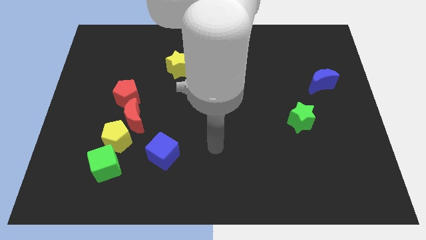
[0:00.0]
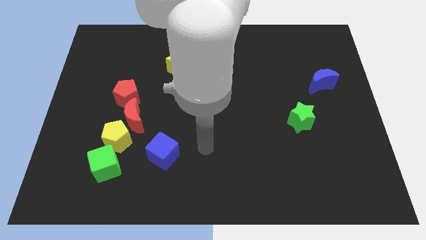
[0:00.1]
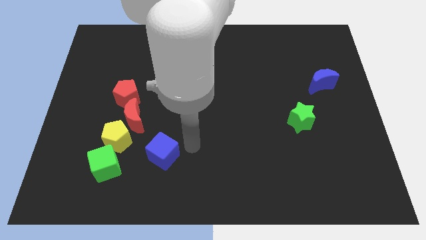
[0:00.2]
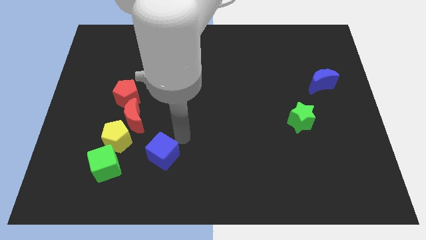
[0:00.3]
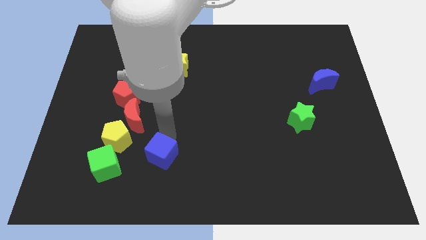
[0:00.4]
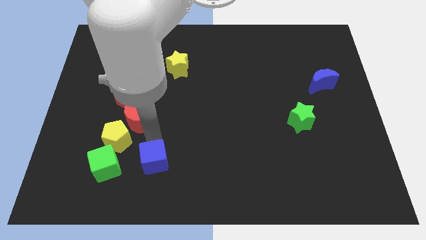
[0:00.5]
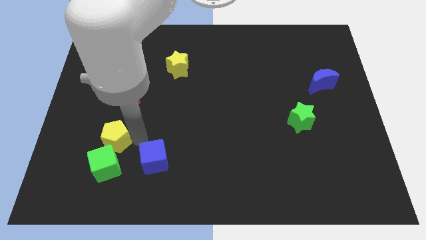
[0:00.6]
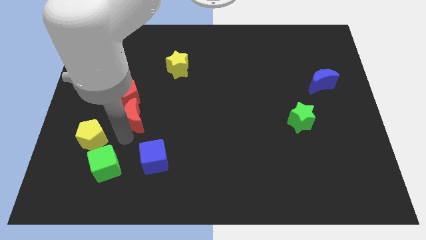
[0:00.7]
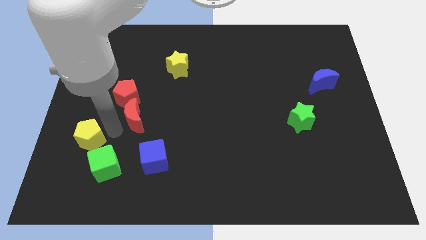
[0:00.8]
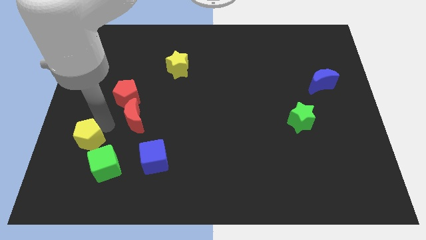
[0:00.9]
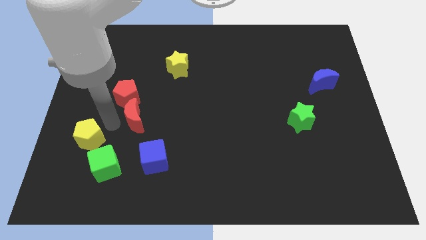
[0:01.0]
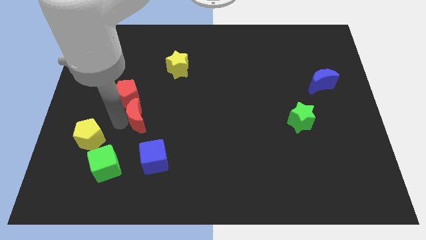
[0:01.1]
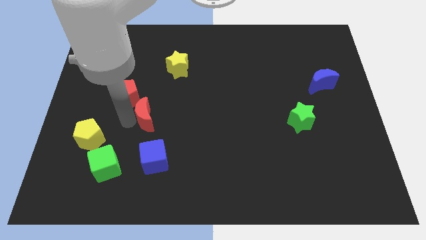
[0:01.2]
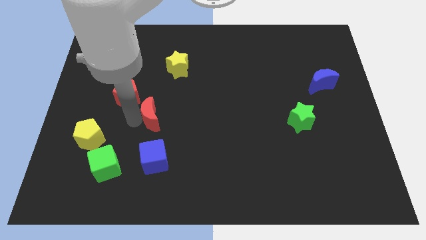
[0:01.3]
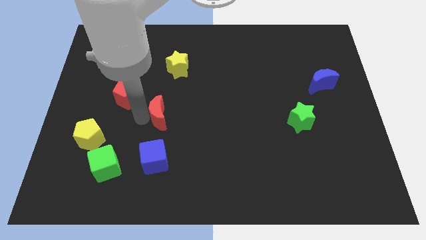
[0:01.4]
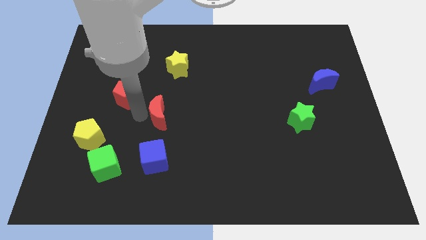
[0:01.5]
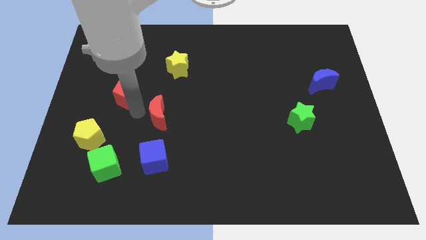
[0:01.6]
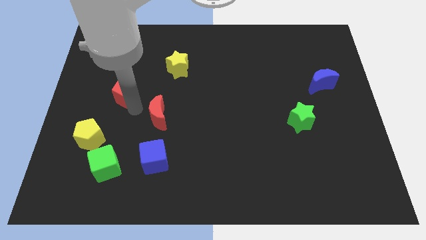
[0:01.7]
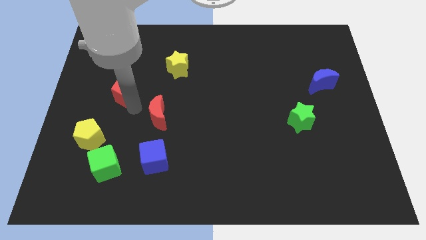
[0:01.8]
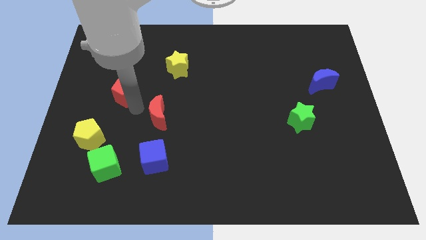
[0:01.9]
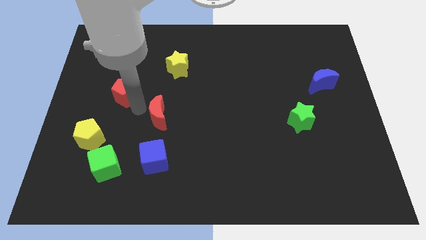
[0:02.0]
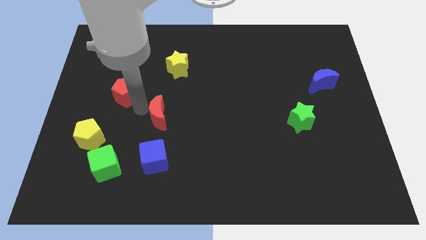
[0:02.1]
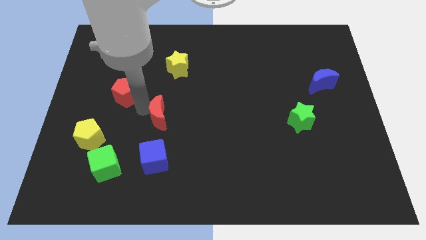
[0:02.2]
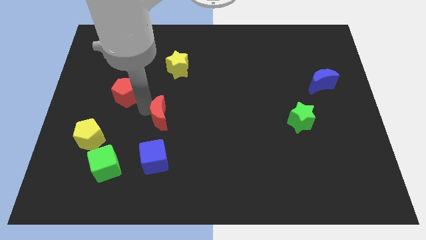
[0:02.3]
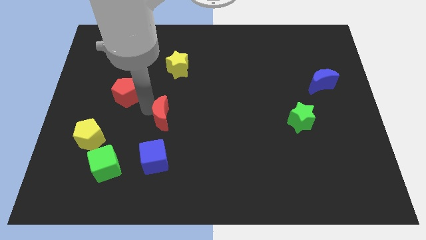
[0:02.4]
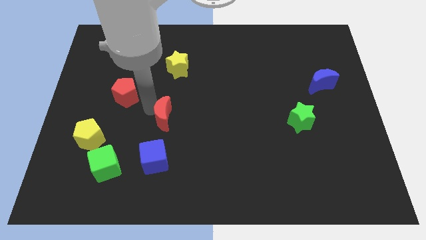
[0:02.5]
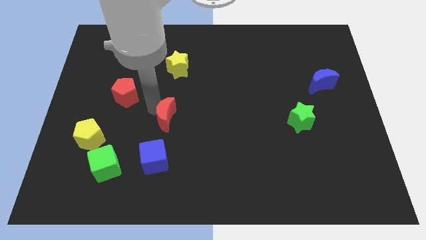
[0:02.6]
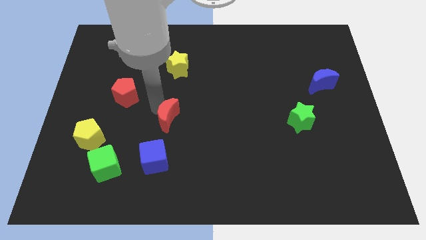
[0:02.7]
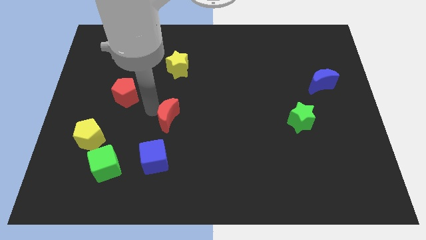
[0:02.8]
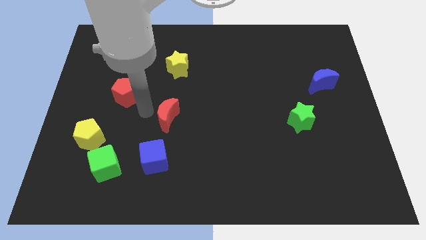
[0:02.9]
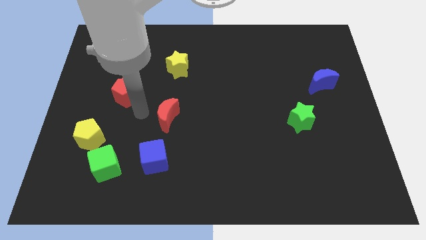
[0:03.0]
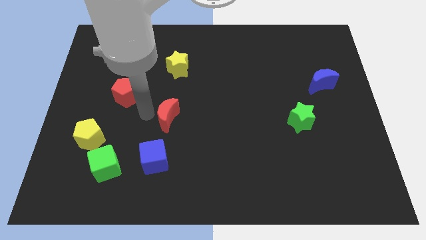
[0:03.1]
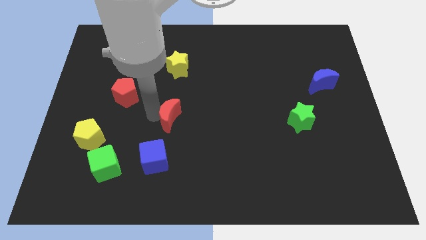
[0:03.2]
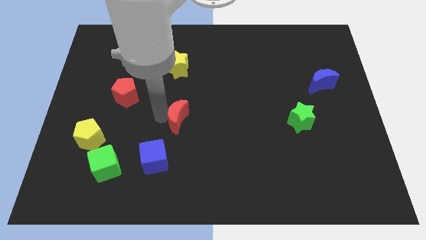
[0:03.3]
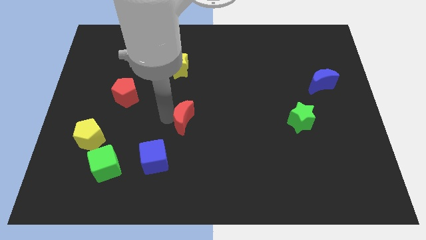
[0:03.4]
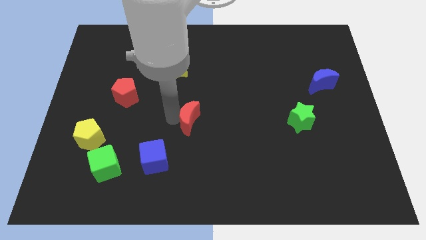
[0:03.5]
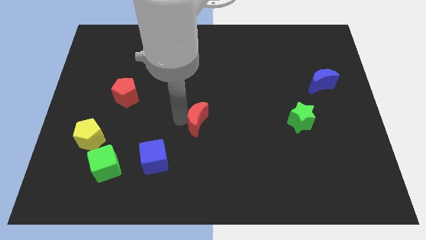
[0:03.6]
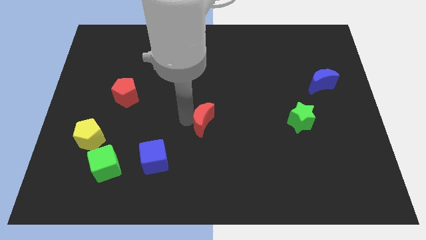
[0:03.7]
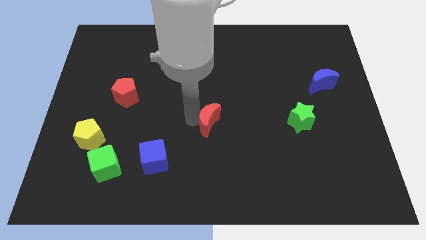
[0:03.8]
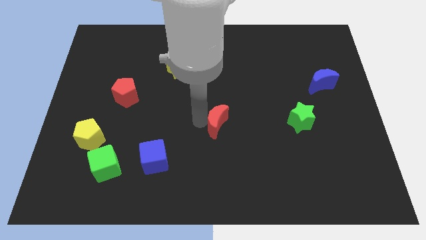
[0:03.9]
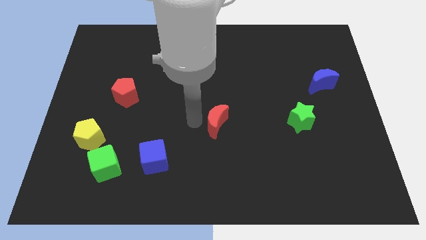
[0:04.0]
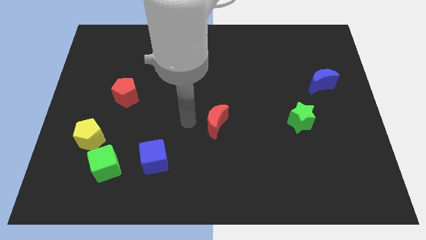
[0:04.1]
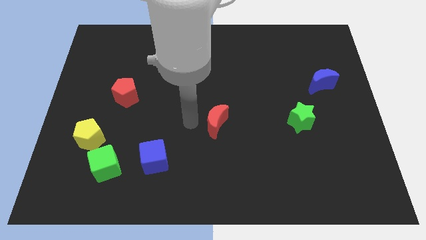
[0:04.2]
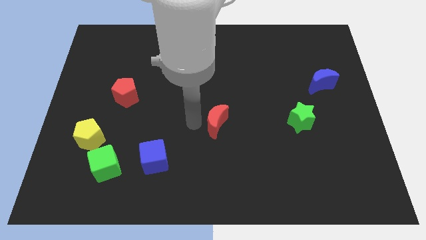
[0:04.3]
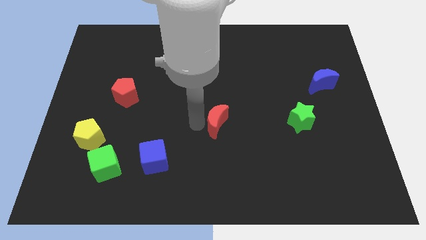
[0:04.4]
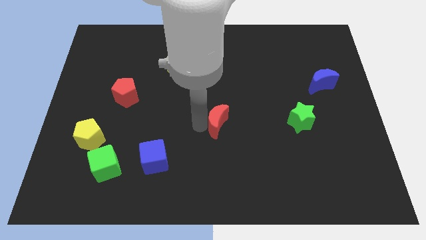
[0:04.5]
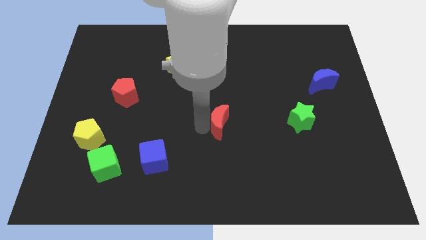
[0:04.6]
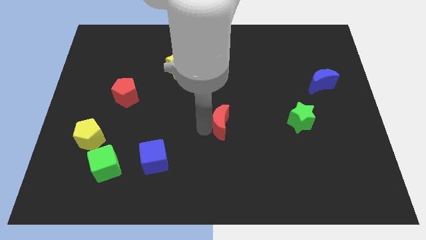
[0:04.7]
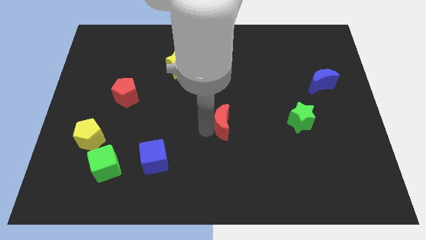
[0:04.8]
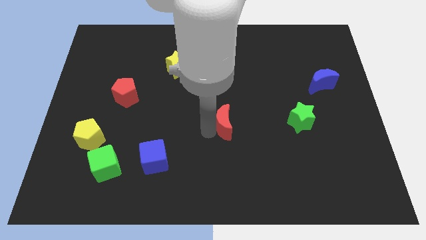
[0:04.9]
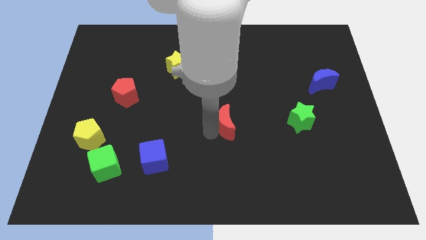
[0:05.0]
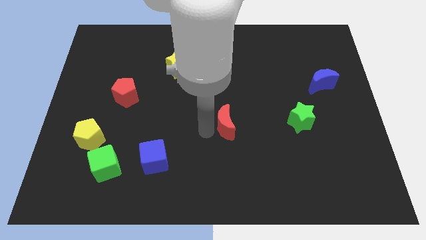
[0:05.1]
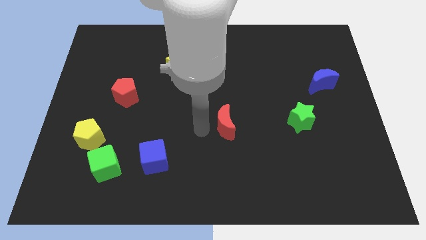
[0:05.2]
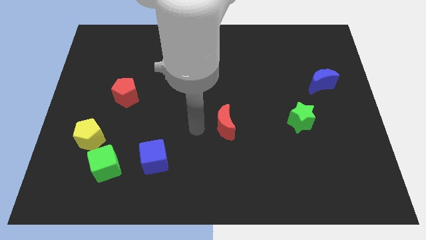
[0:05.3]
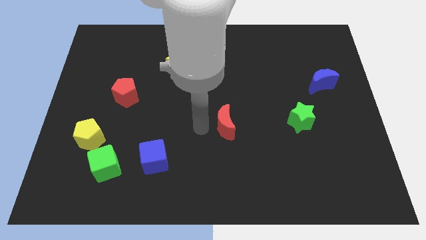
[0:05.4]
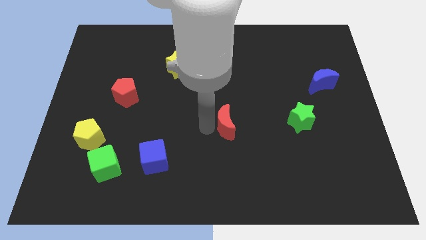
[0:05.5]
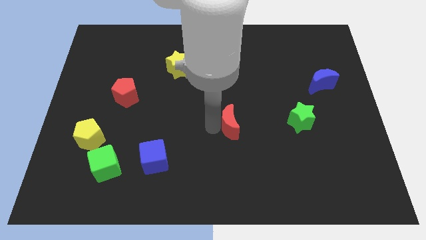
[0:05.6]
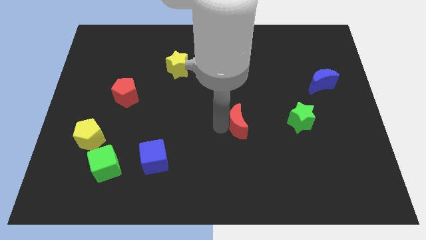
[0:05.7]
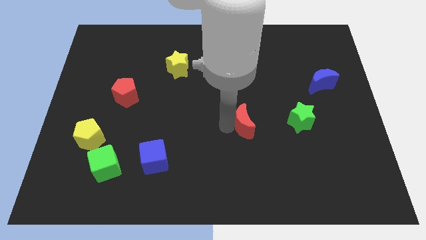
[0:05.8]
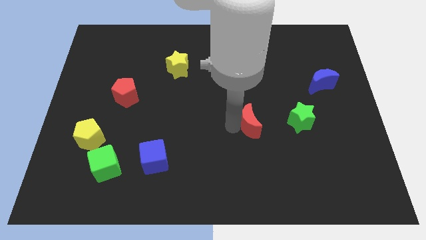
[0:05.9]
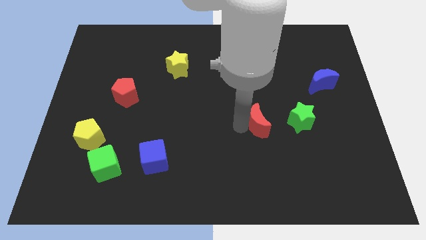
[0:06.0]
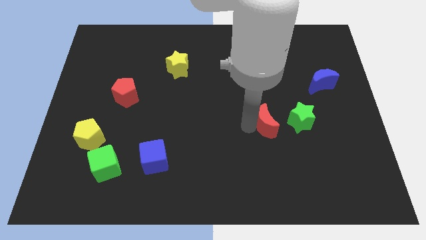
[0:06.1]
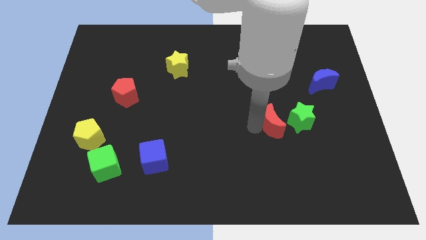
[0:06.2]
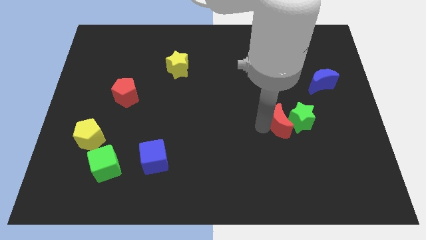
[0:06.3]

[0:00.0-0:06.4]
slide the red moon to the green star

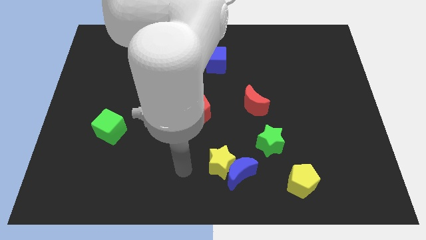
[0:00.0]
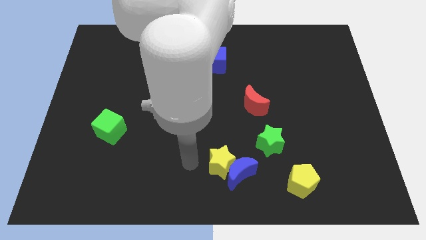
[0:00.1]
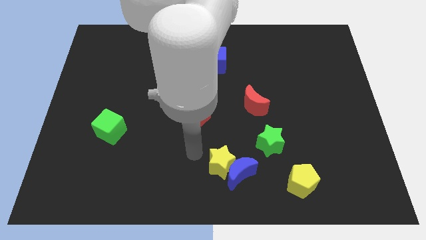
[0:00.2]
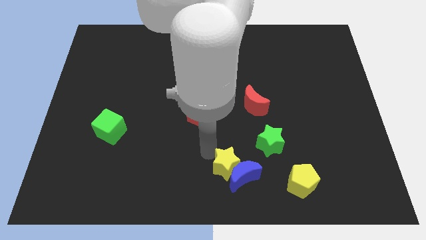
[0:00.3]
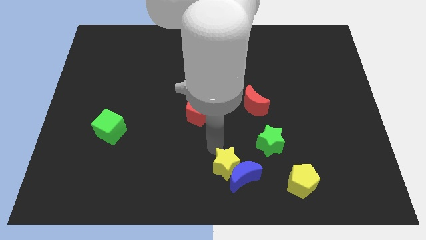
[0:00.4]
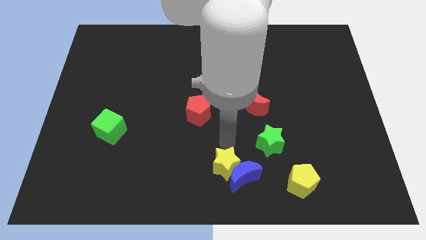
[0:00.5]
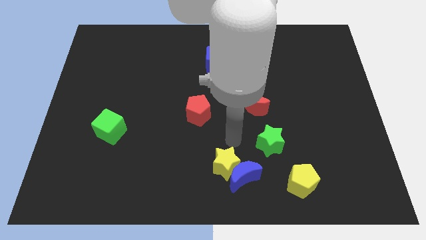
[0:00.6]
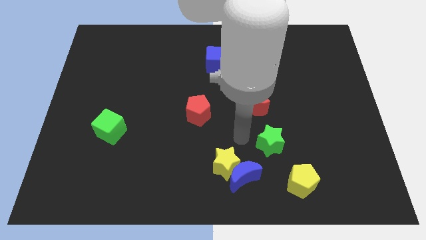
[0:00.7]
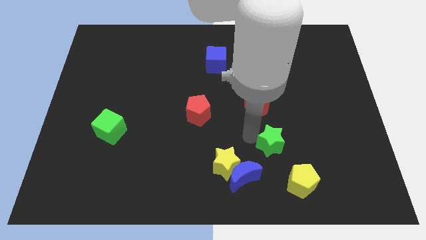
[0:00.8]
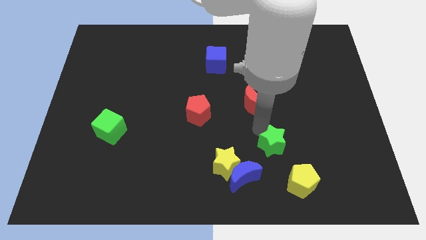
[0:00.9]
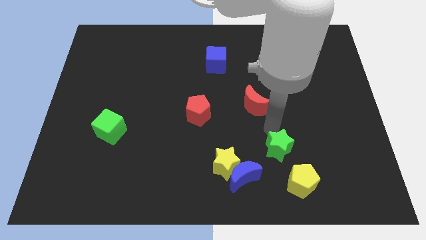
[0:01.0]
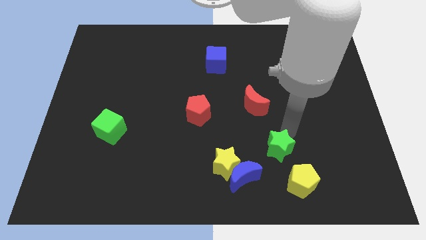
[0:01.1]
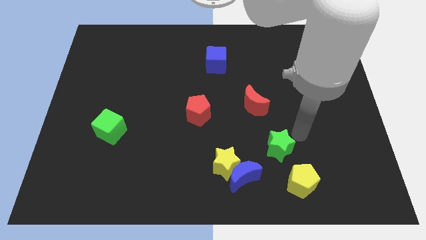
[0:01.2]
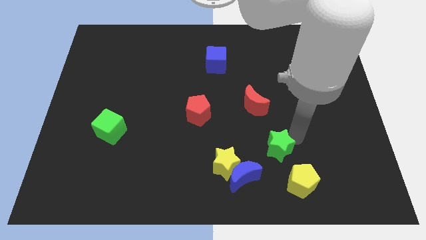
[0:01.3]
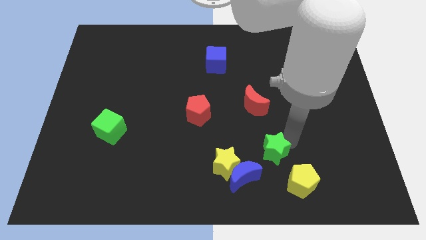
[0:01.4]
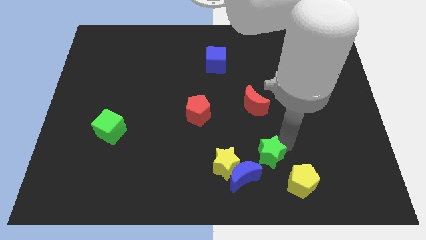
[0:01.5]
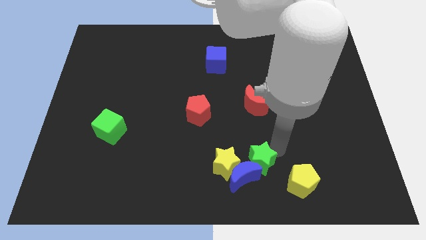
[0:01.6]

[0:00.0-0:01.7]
slide the green star towards the blue moon
